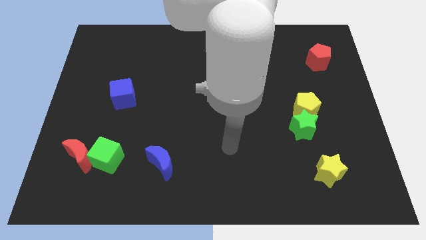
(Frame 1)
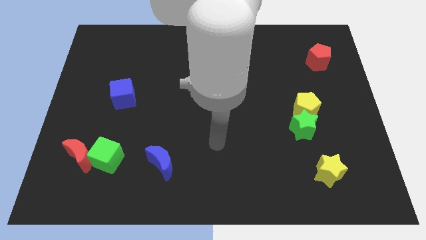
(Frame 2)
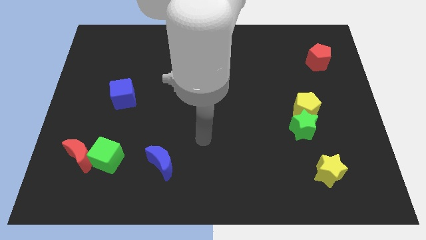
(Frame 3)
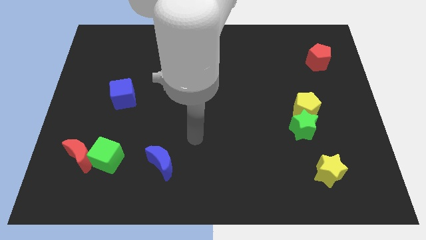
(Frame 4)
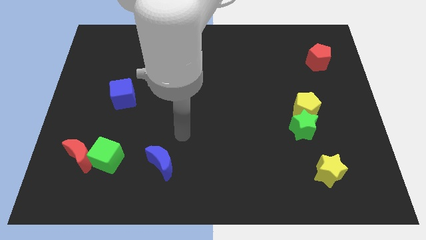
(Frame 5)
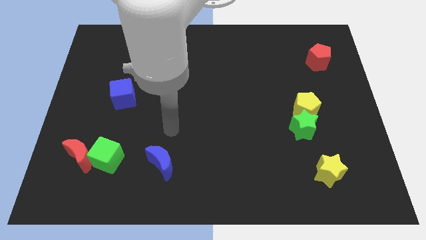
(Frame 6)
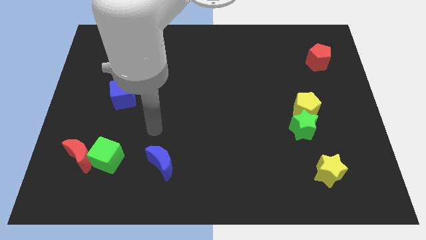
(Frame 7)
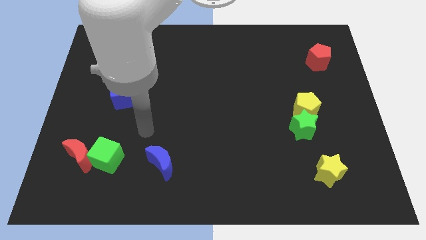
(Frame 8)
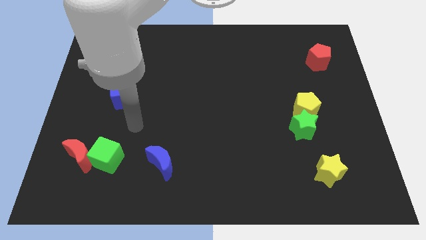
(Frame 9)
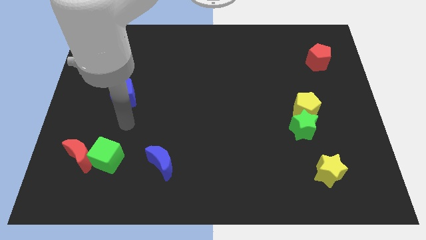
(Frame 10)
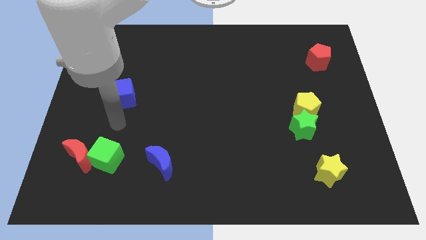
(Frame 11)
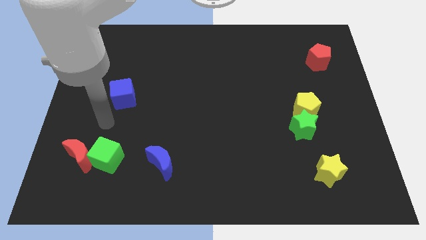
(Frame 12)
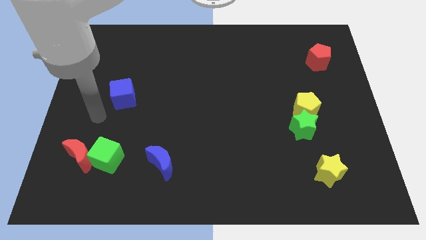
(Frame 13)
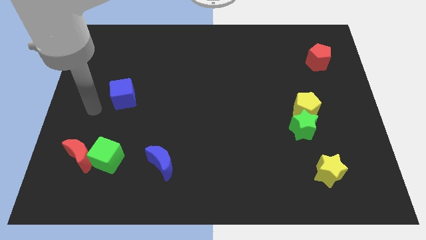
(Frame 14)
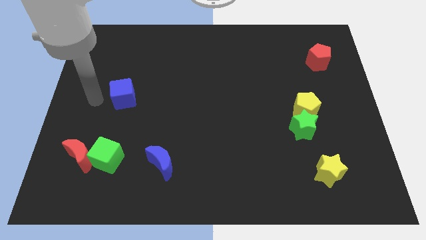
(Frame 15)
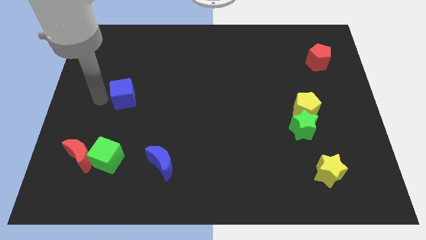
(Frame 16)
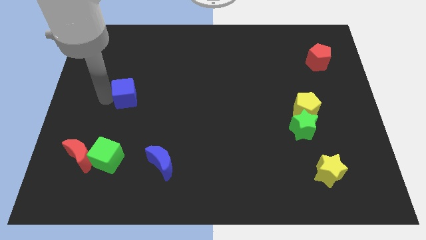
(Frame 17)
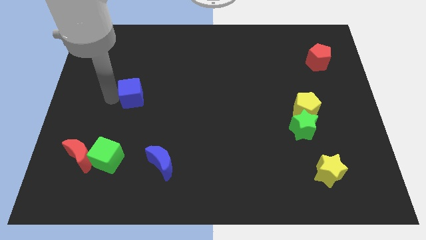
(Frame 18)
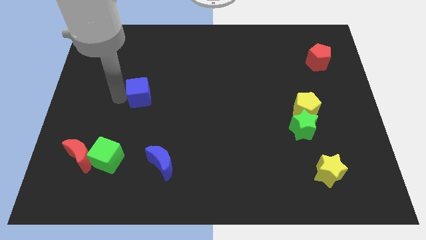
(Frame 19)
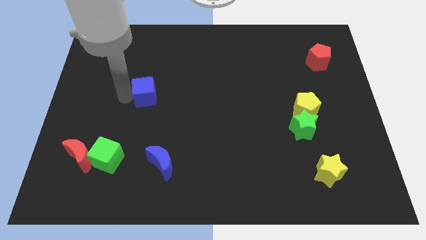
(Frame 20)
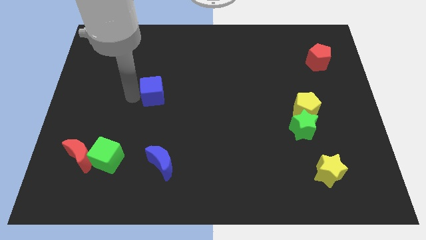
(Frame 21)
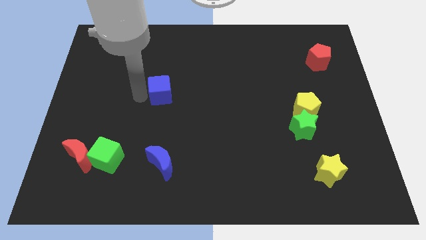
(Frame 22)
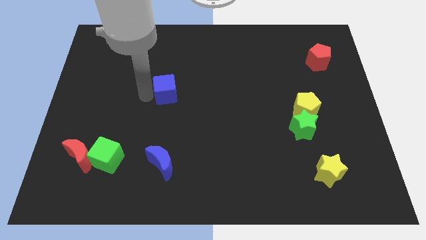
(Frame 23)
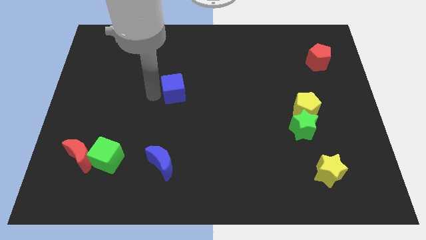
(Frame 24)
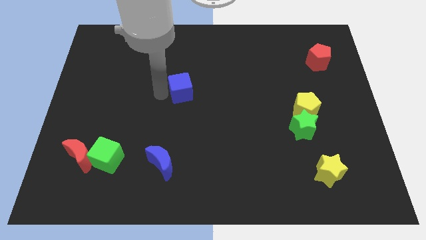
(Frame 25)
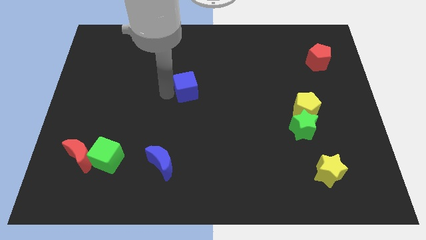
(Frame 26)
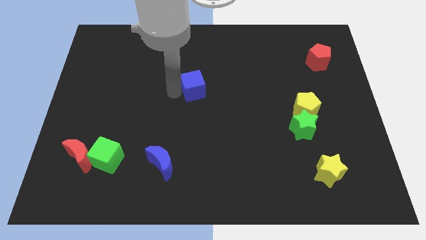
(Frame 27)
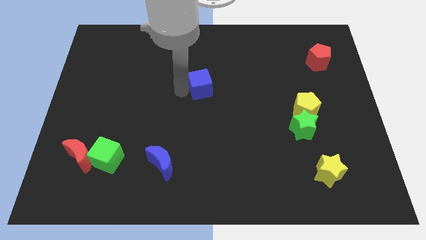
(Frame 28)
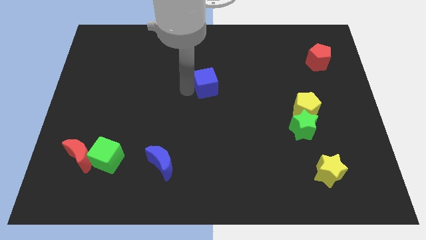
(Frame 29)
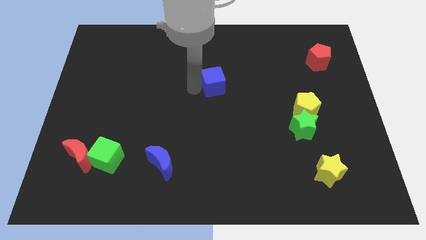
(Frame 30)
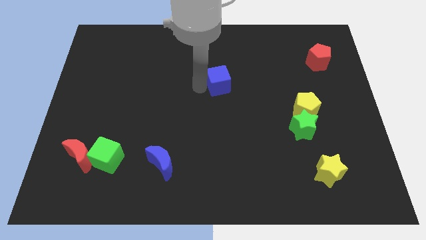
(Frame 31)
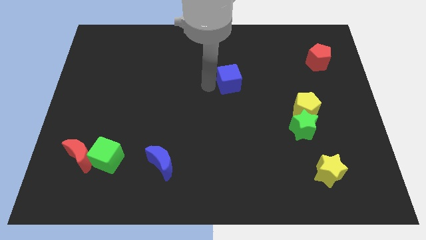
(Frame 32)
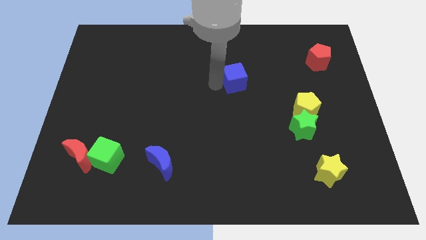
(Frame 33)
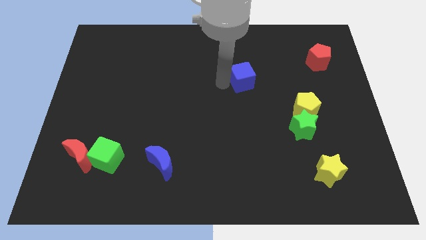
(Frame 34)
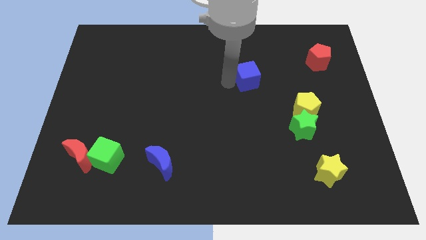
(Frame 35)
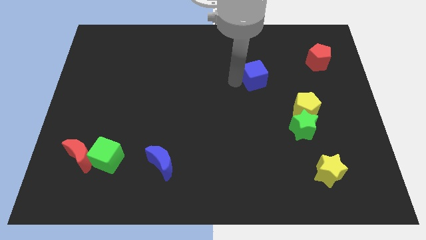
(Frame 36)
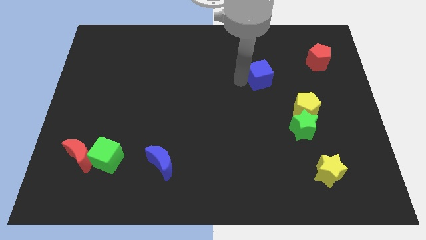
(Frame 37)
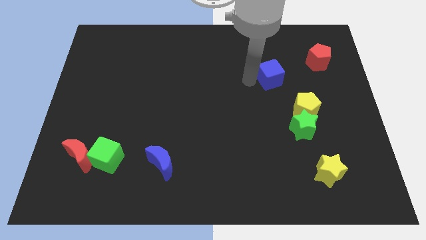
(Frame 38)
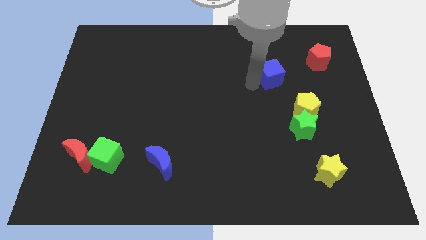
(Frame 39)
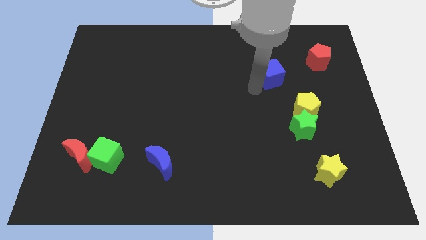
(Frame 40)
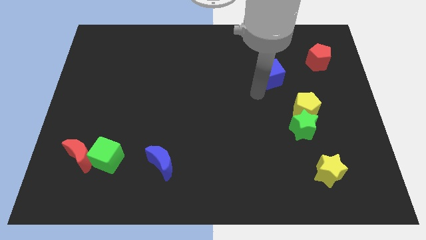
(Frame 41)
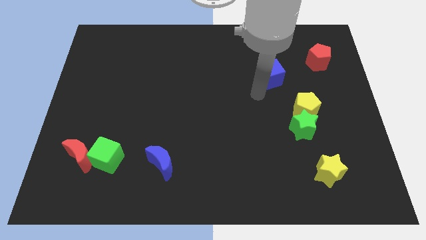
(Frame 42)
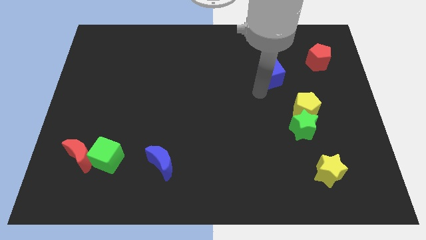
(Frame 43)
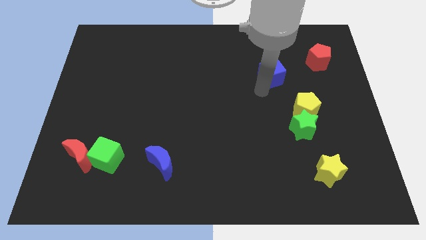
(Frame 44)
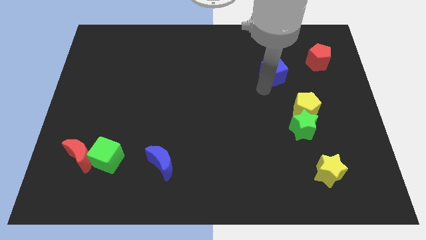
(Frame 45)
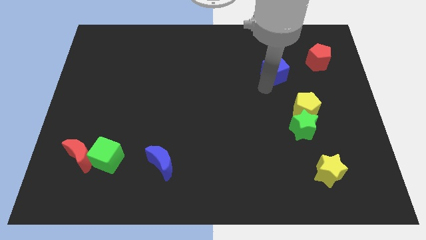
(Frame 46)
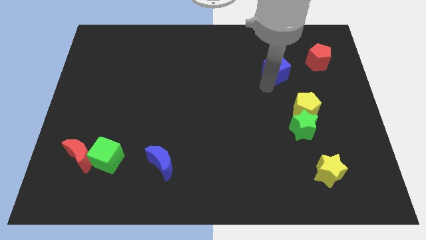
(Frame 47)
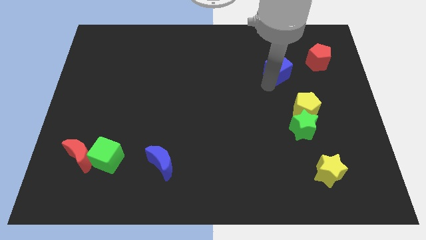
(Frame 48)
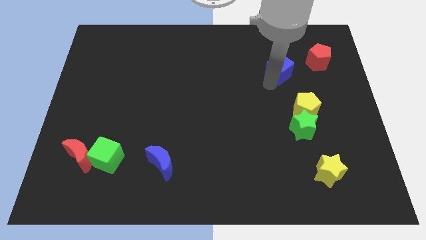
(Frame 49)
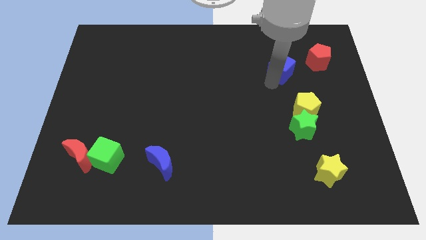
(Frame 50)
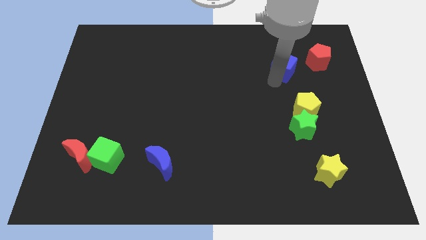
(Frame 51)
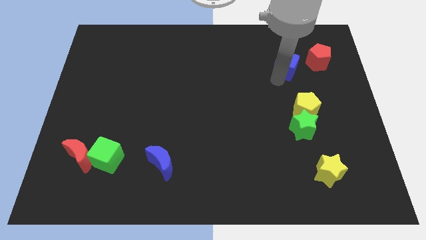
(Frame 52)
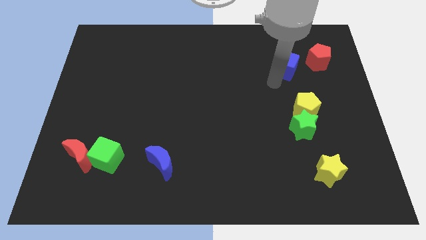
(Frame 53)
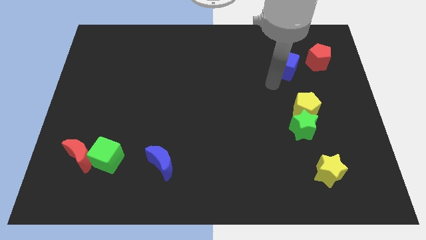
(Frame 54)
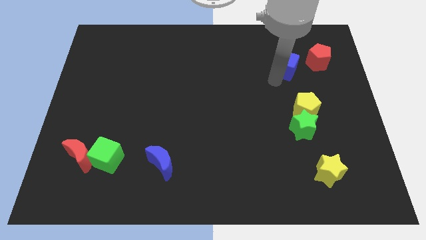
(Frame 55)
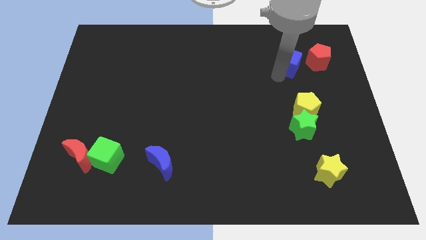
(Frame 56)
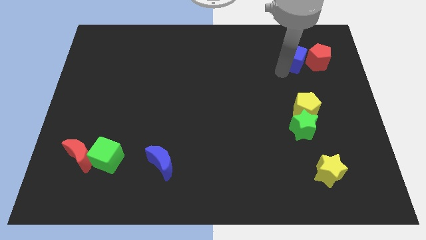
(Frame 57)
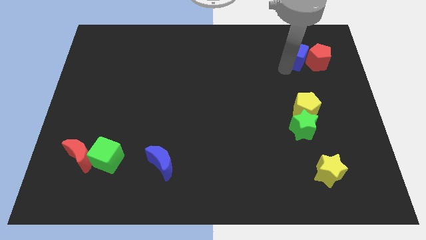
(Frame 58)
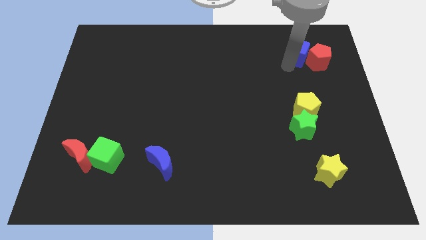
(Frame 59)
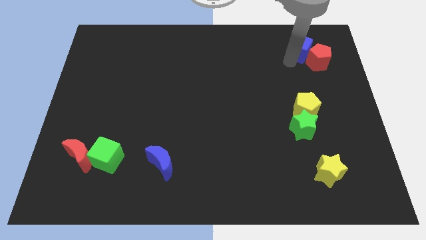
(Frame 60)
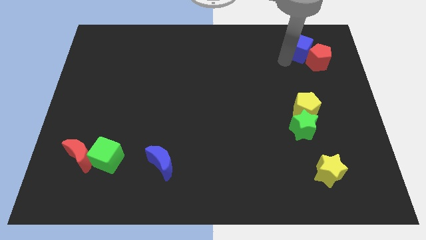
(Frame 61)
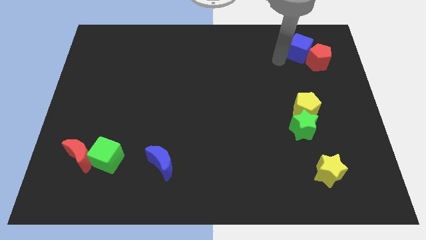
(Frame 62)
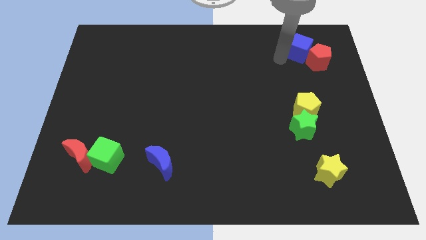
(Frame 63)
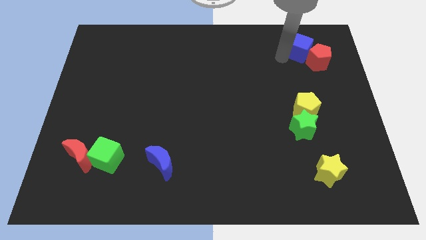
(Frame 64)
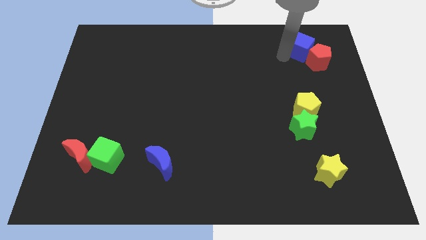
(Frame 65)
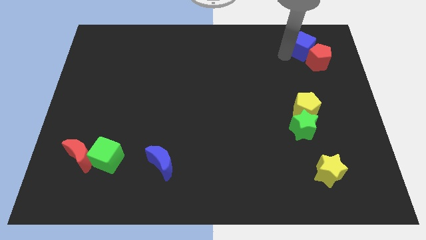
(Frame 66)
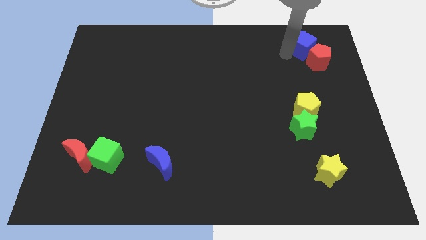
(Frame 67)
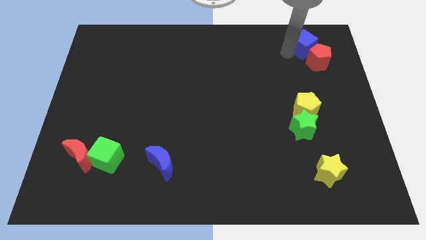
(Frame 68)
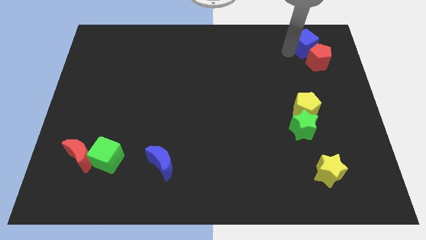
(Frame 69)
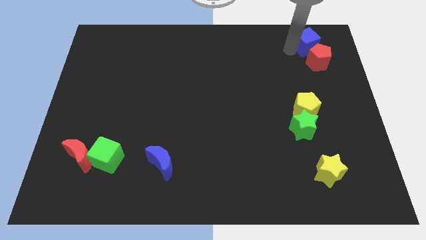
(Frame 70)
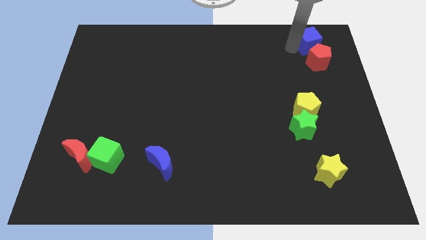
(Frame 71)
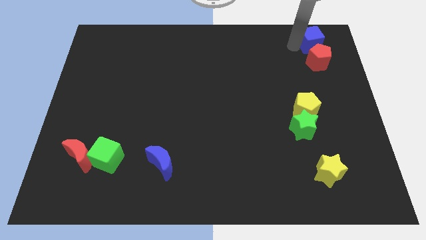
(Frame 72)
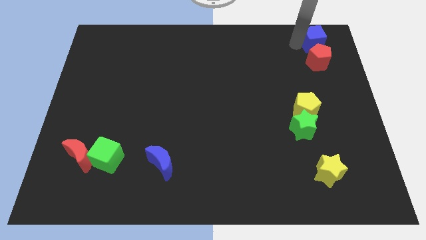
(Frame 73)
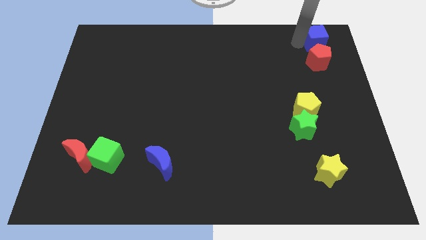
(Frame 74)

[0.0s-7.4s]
slide the blue cube to the top right corner

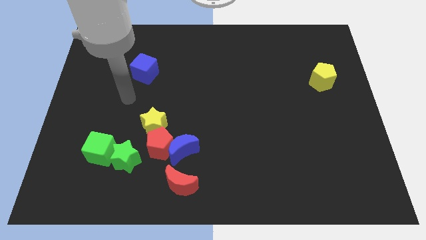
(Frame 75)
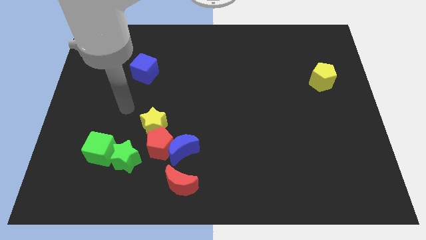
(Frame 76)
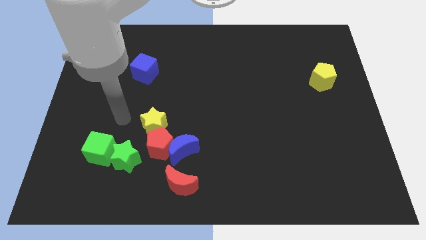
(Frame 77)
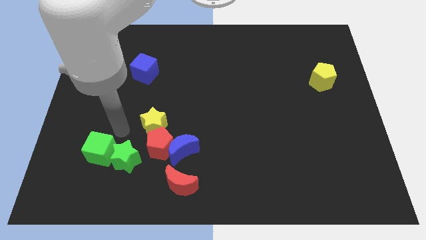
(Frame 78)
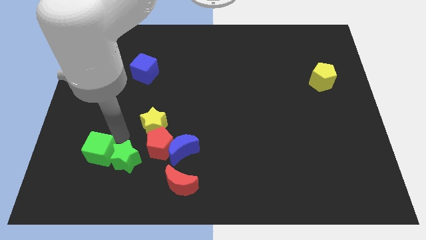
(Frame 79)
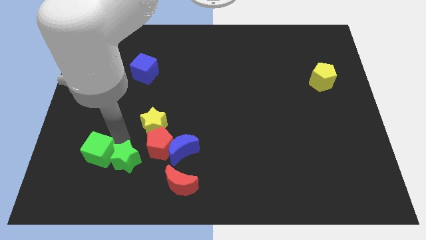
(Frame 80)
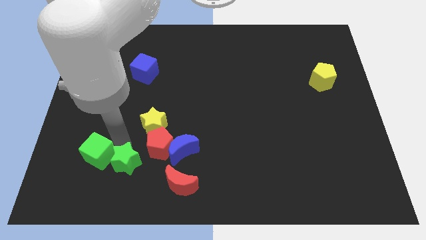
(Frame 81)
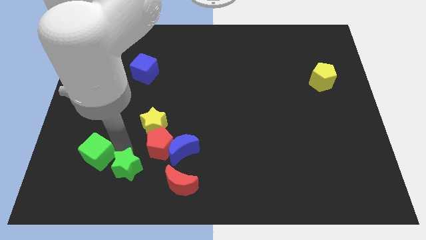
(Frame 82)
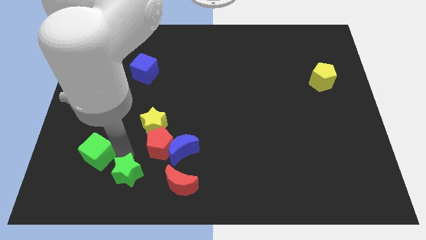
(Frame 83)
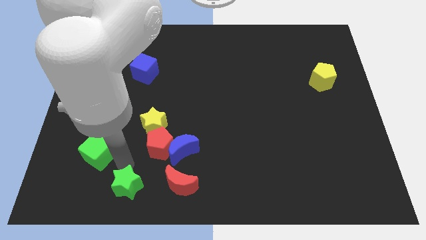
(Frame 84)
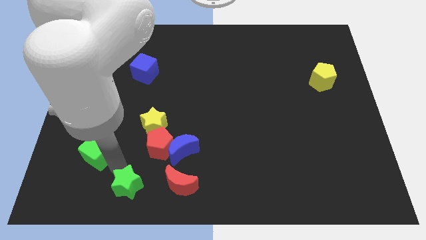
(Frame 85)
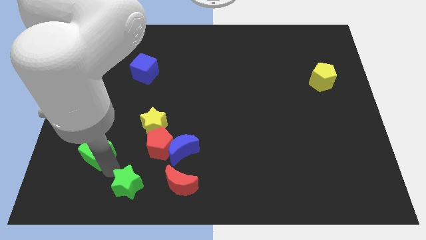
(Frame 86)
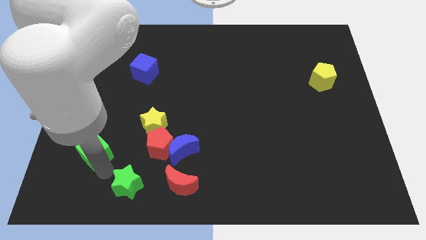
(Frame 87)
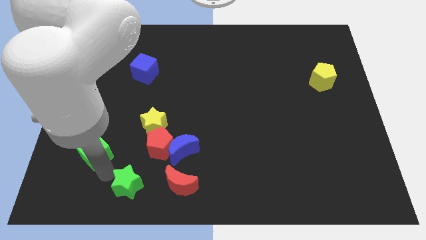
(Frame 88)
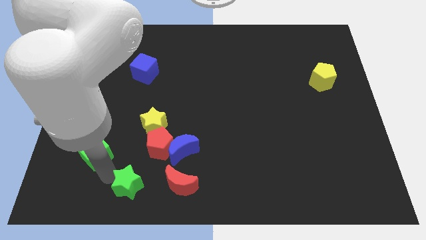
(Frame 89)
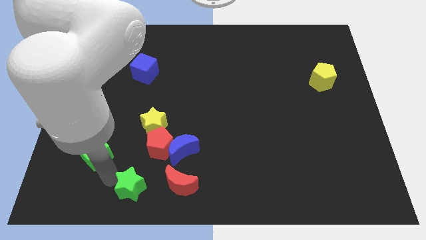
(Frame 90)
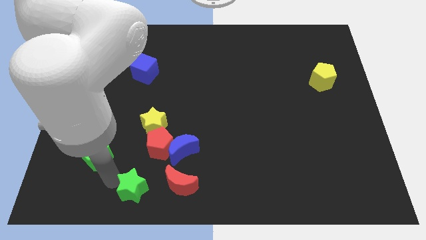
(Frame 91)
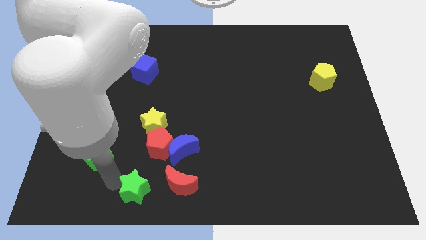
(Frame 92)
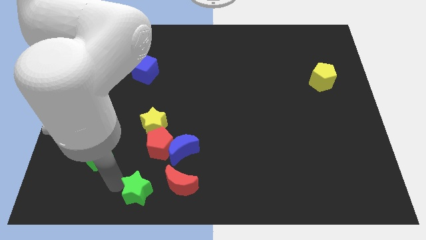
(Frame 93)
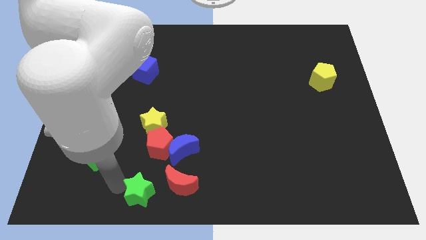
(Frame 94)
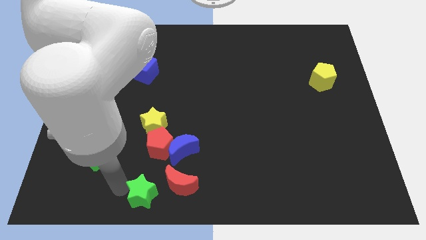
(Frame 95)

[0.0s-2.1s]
move the green star to the bottom side
